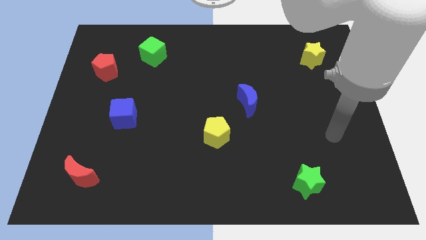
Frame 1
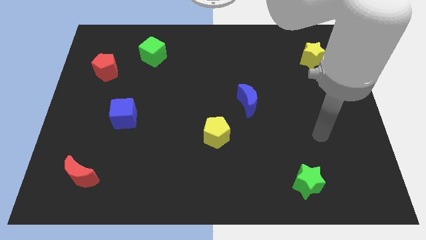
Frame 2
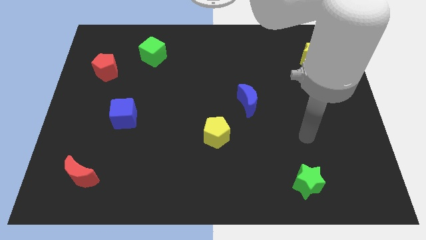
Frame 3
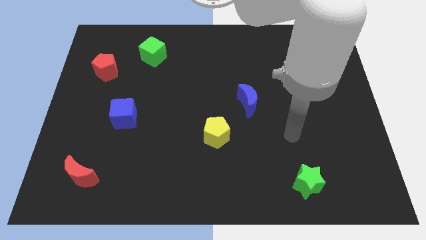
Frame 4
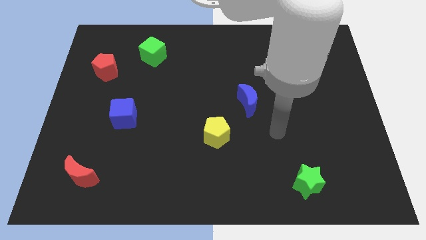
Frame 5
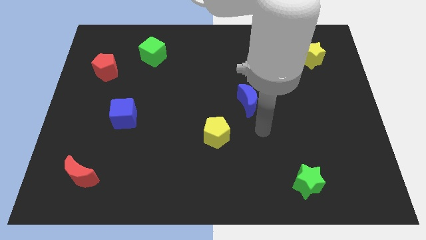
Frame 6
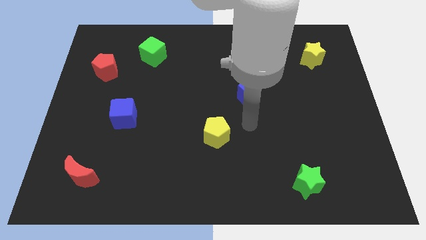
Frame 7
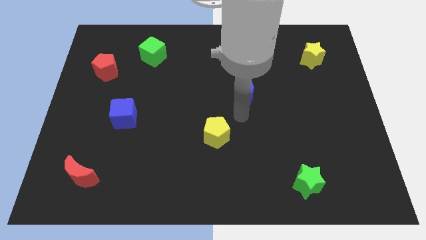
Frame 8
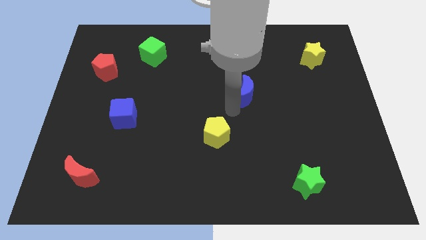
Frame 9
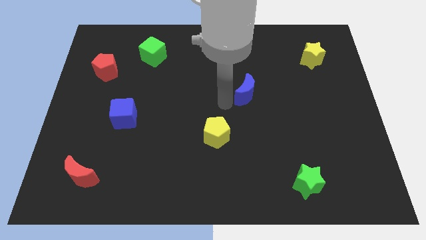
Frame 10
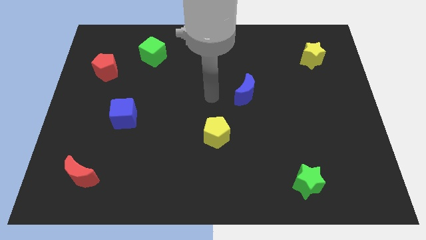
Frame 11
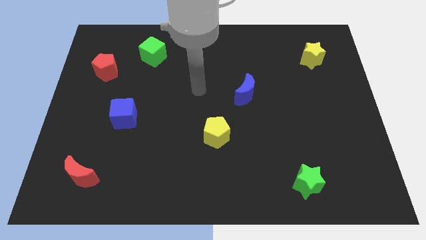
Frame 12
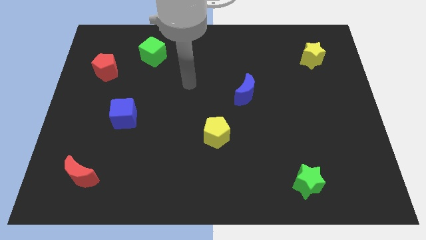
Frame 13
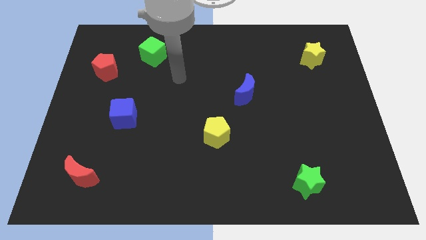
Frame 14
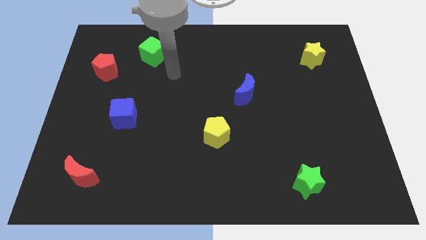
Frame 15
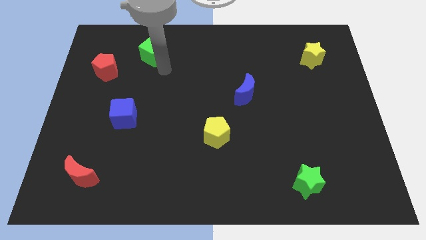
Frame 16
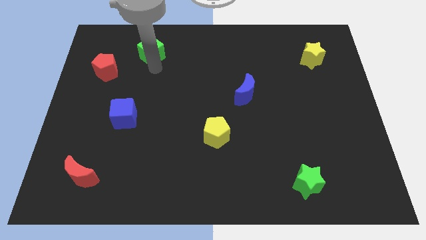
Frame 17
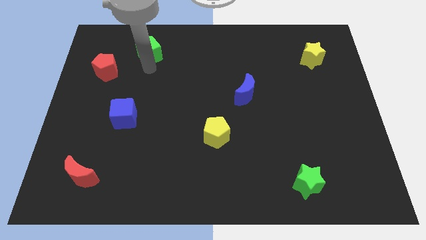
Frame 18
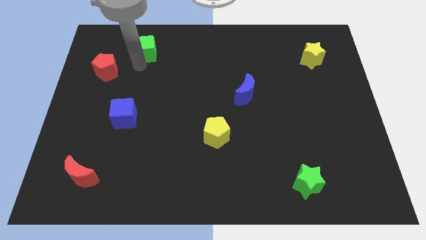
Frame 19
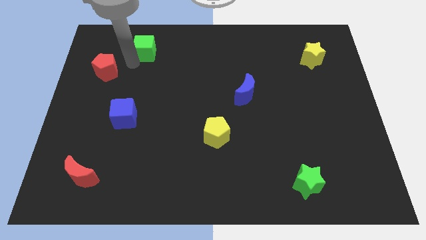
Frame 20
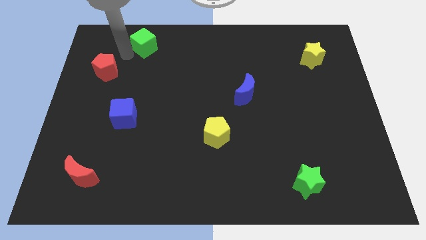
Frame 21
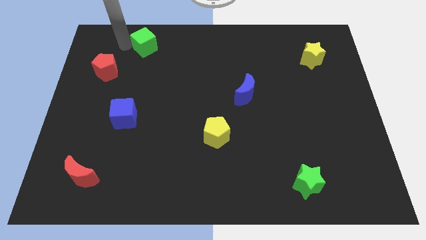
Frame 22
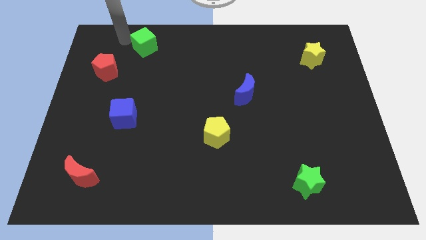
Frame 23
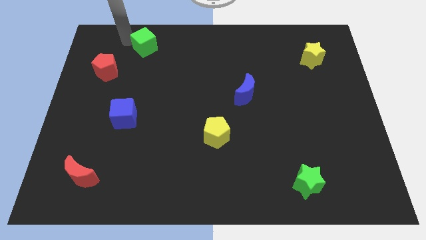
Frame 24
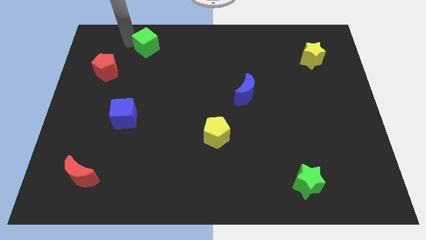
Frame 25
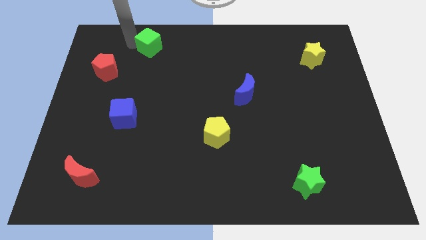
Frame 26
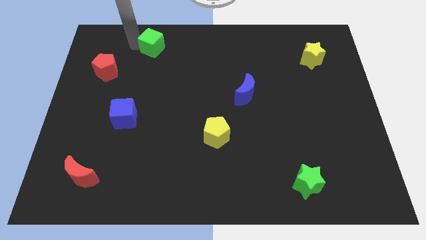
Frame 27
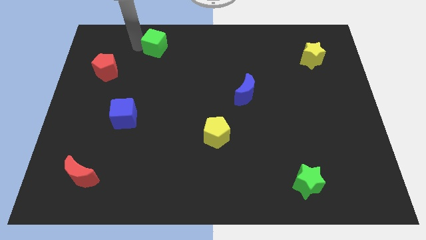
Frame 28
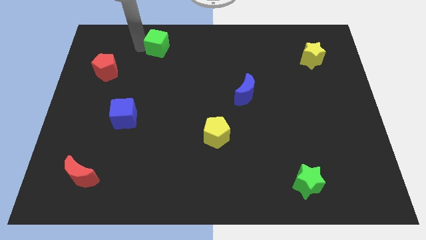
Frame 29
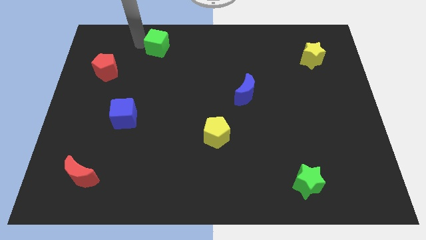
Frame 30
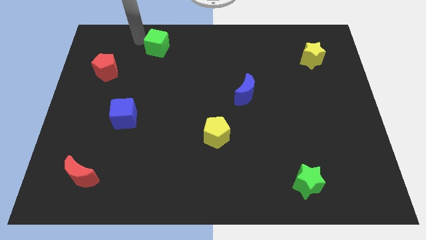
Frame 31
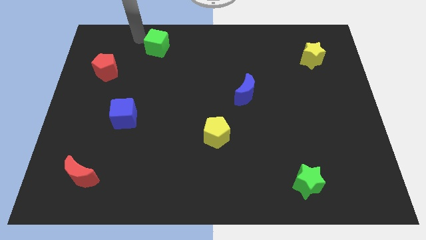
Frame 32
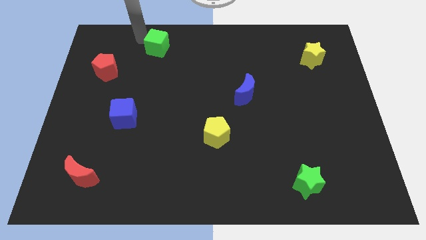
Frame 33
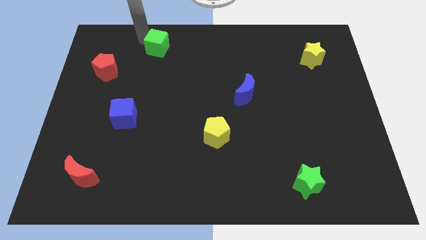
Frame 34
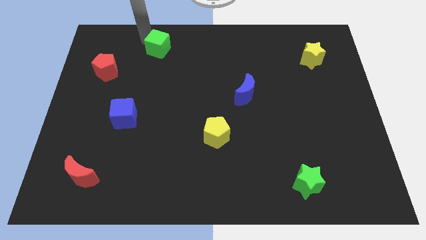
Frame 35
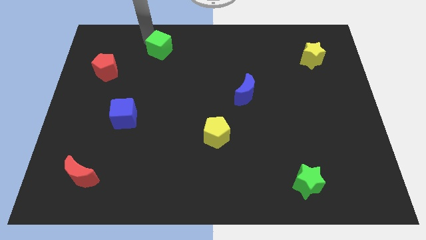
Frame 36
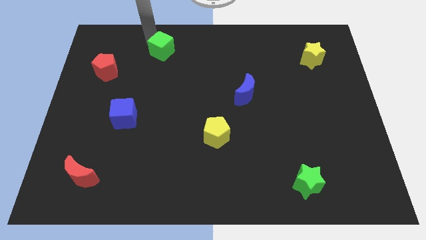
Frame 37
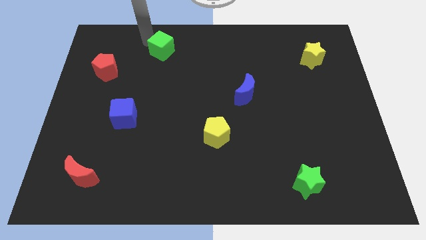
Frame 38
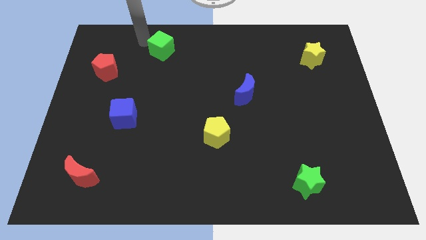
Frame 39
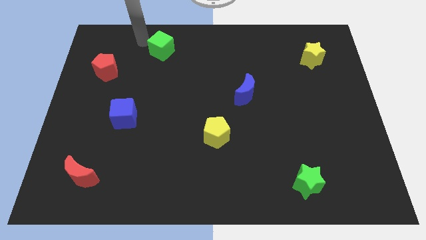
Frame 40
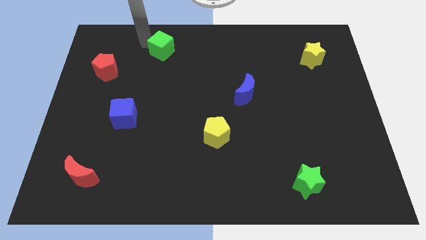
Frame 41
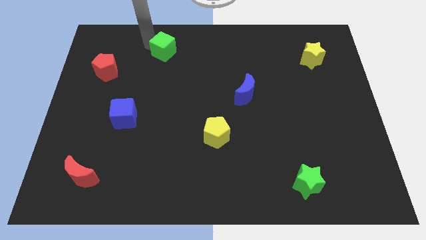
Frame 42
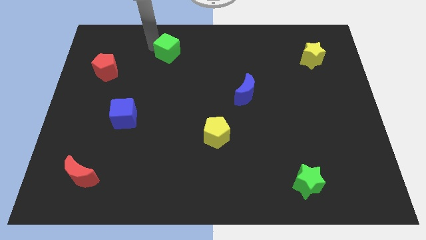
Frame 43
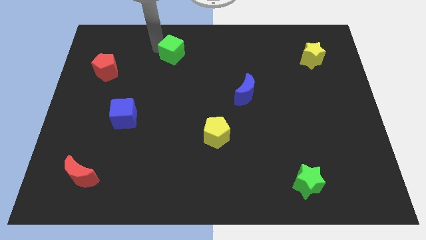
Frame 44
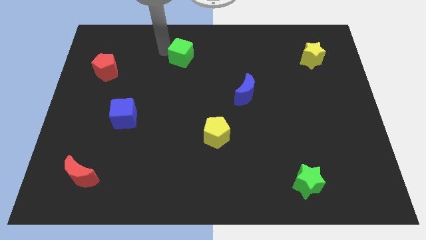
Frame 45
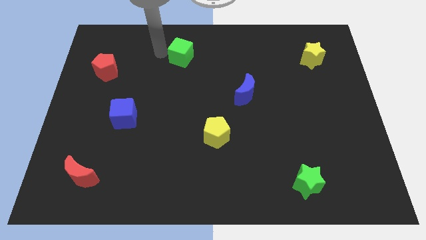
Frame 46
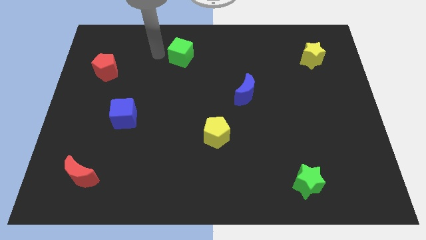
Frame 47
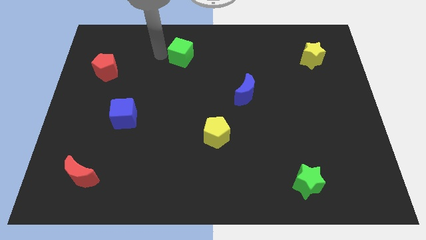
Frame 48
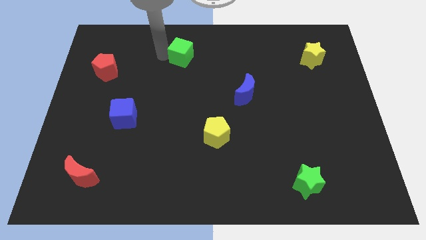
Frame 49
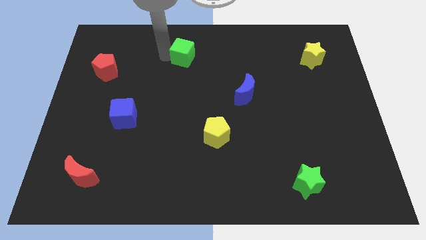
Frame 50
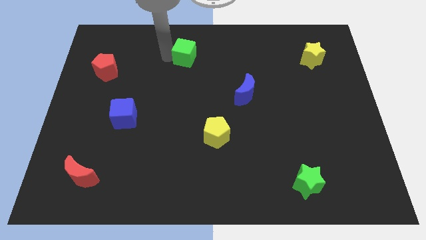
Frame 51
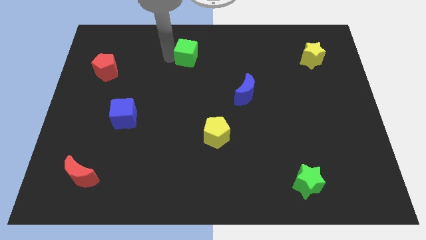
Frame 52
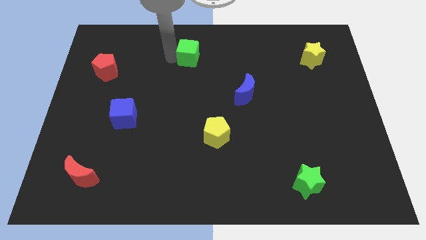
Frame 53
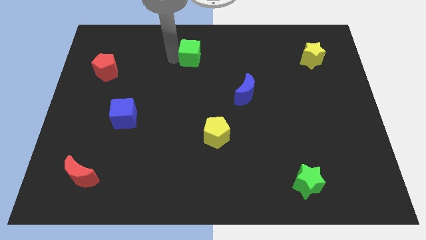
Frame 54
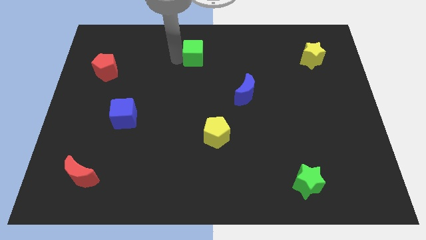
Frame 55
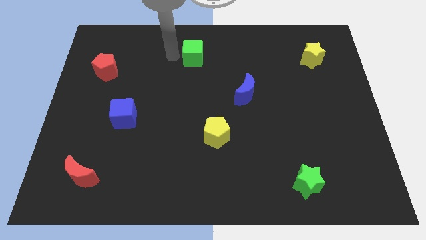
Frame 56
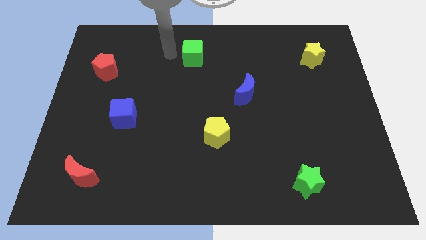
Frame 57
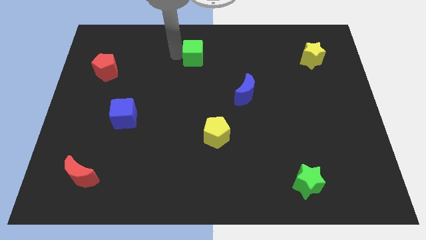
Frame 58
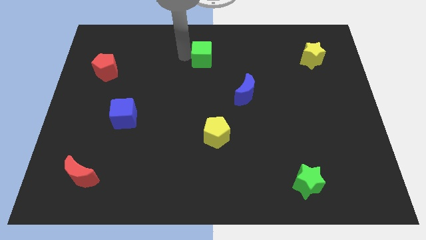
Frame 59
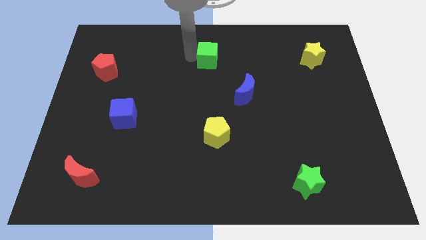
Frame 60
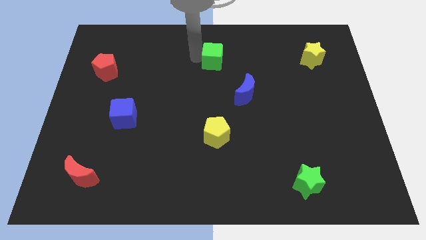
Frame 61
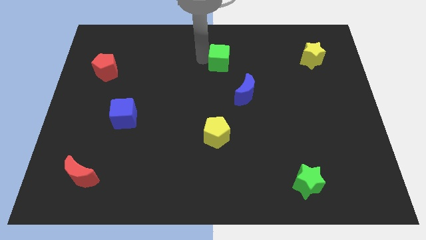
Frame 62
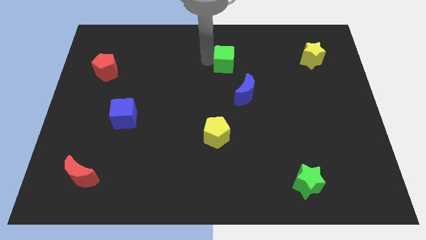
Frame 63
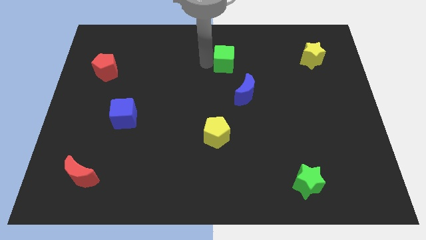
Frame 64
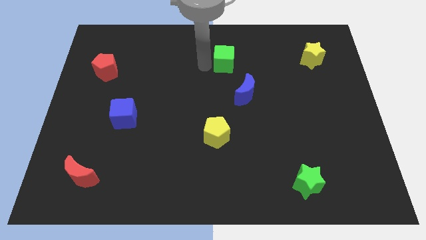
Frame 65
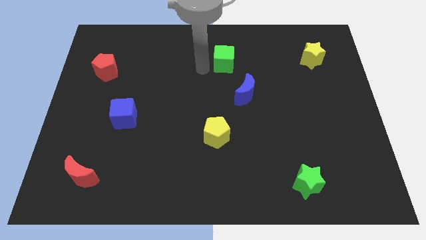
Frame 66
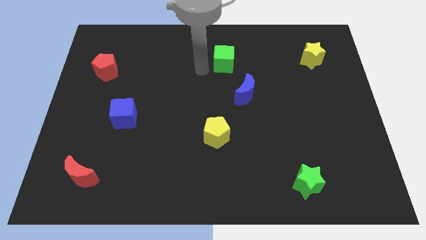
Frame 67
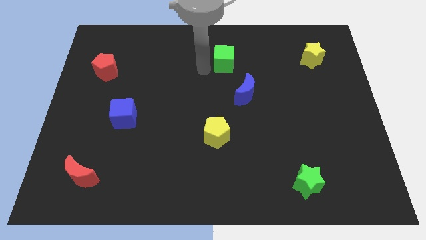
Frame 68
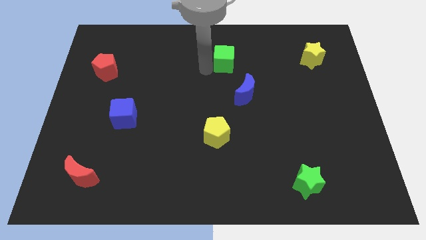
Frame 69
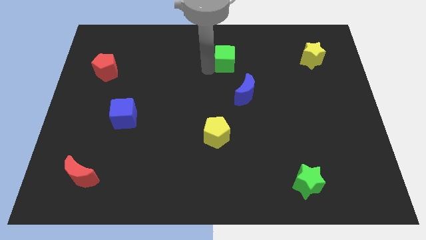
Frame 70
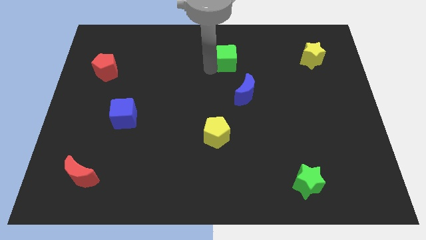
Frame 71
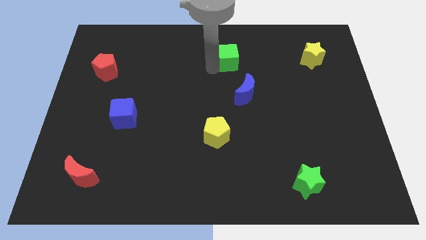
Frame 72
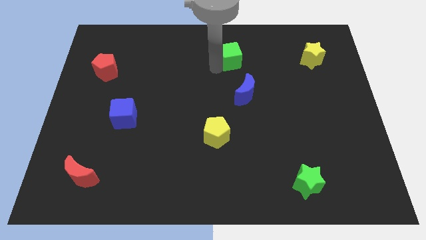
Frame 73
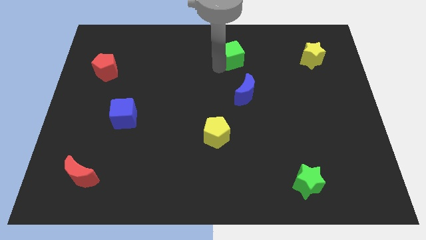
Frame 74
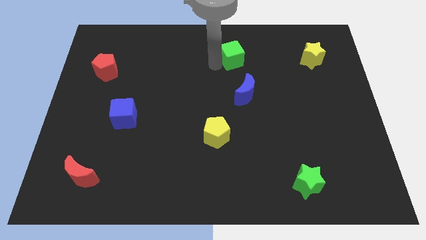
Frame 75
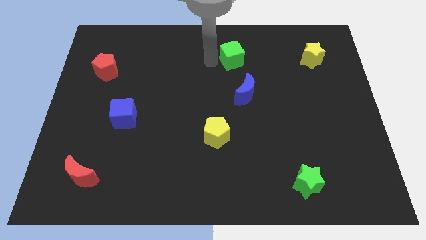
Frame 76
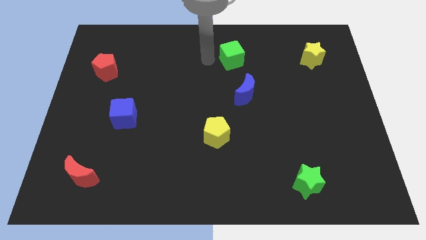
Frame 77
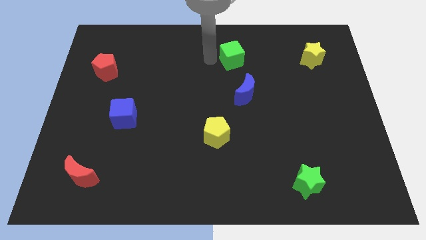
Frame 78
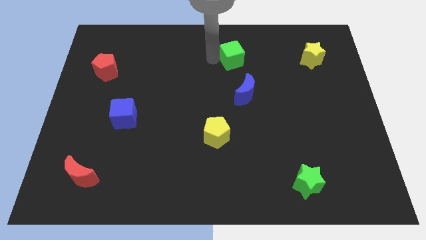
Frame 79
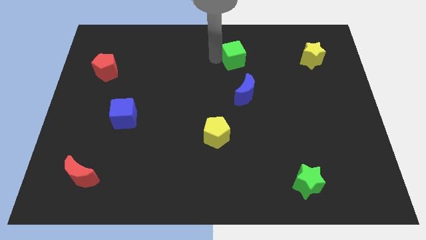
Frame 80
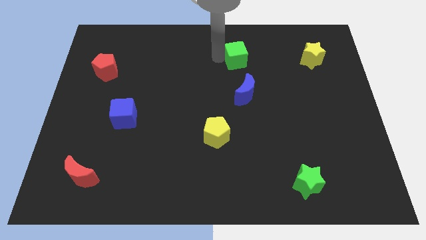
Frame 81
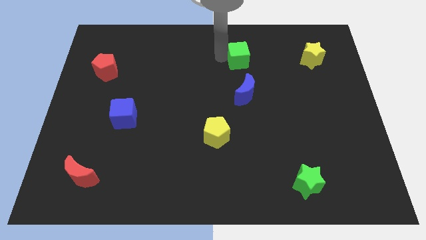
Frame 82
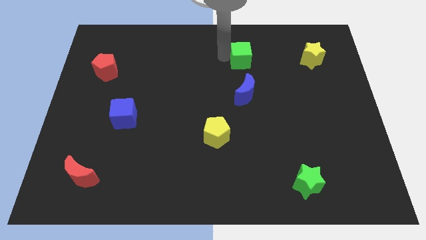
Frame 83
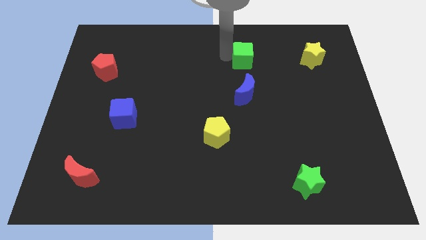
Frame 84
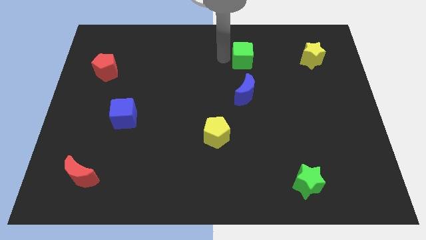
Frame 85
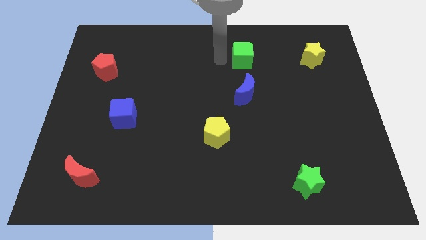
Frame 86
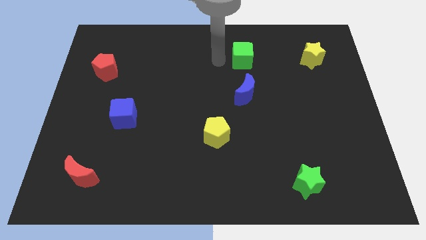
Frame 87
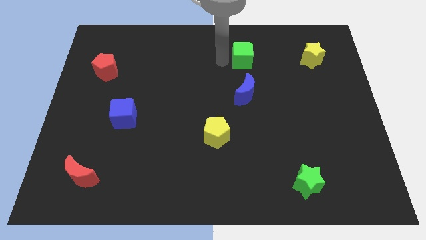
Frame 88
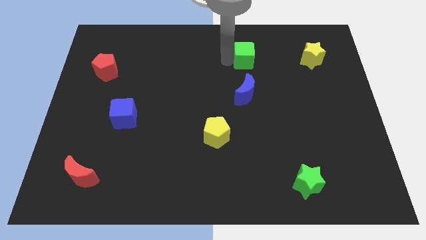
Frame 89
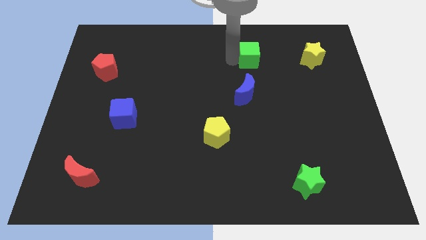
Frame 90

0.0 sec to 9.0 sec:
put the green cube left of the yellow star
